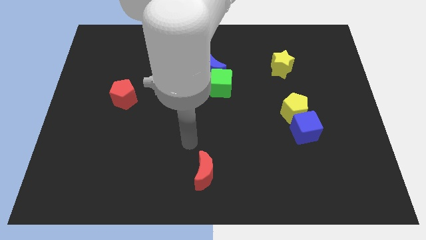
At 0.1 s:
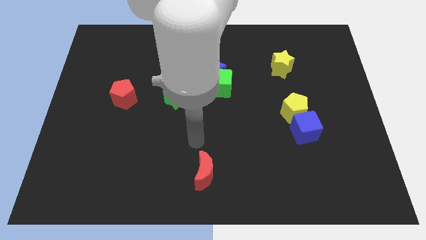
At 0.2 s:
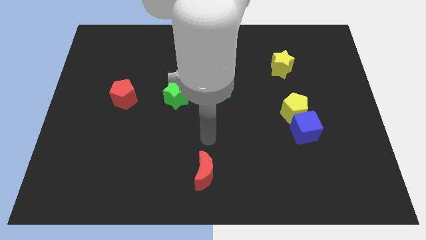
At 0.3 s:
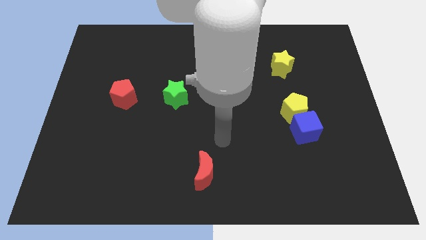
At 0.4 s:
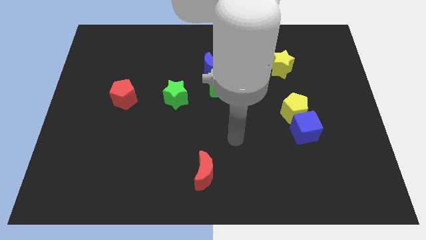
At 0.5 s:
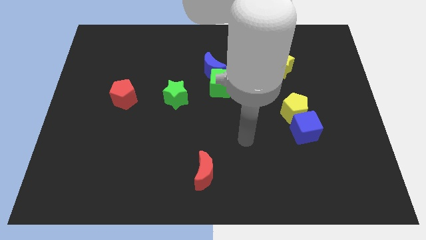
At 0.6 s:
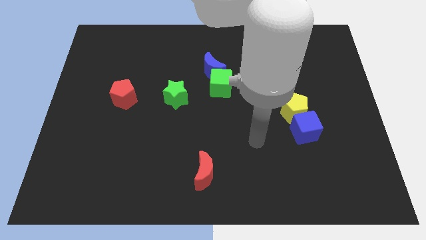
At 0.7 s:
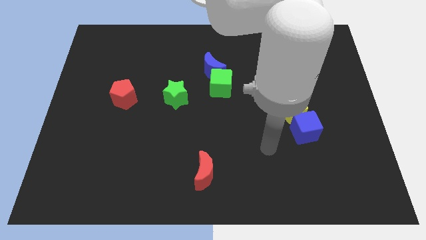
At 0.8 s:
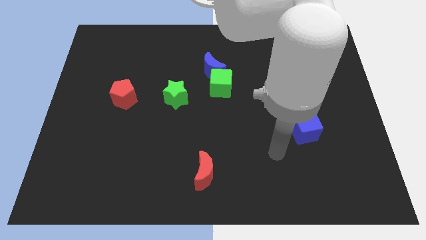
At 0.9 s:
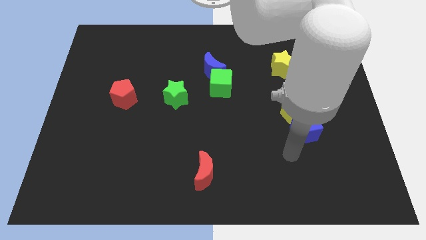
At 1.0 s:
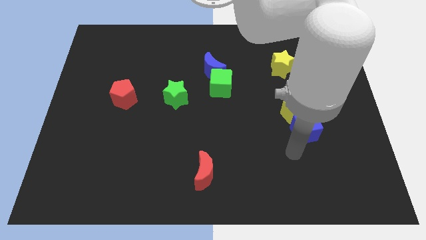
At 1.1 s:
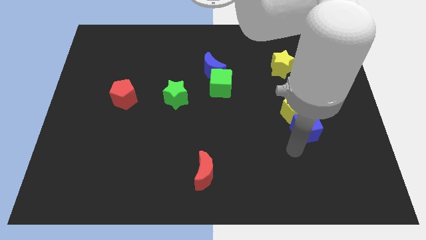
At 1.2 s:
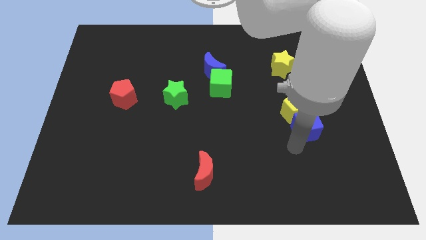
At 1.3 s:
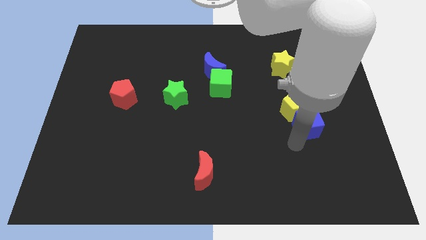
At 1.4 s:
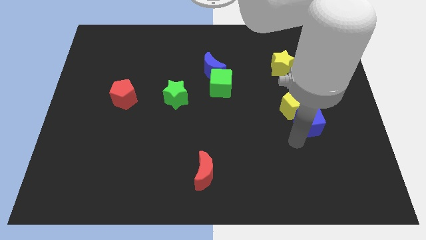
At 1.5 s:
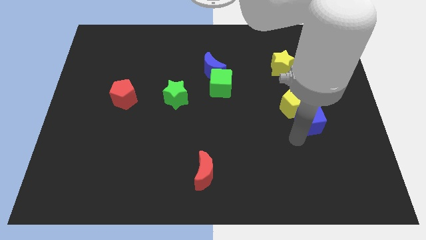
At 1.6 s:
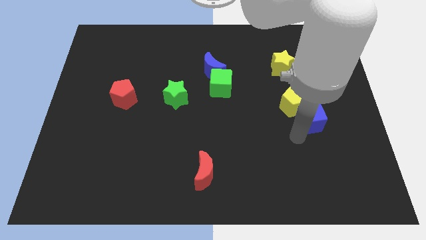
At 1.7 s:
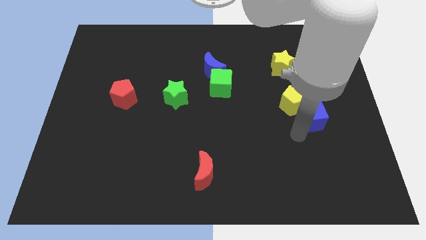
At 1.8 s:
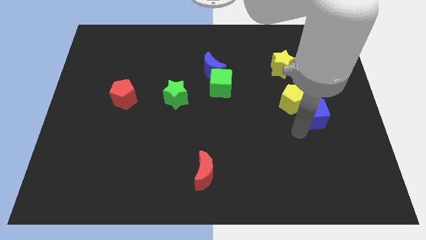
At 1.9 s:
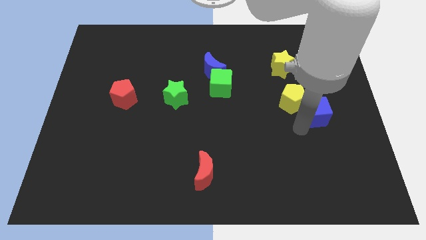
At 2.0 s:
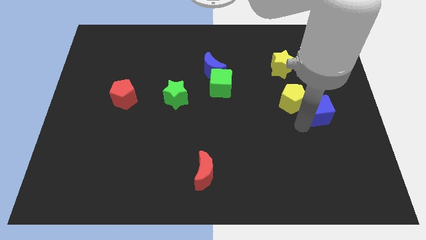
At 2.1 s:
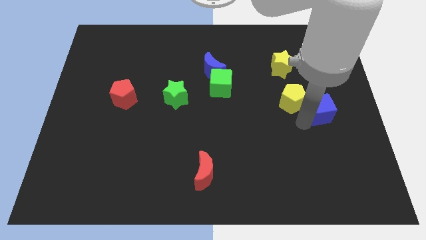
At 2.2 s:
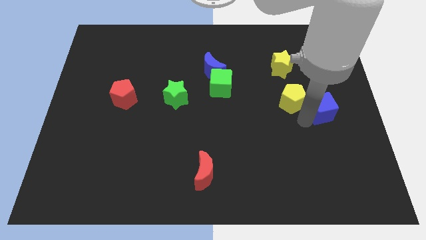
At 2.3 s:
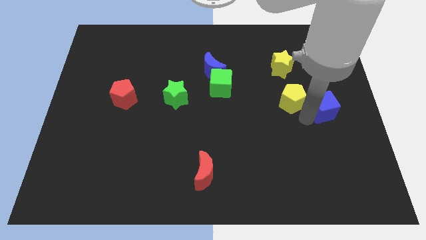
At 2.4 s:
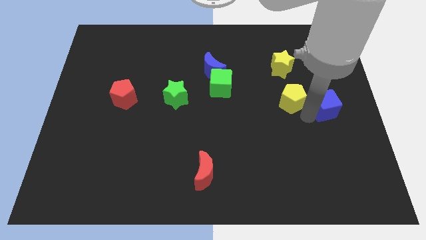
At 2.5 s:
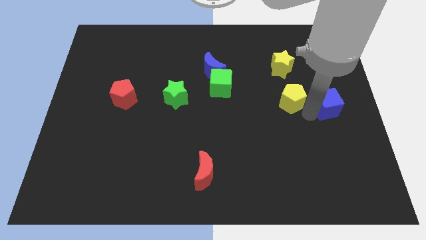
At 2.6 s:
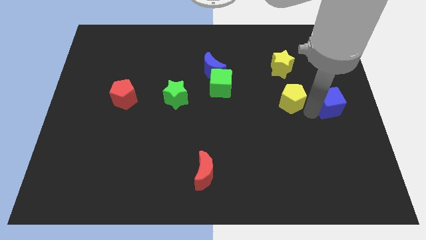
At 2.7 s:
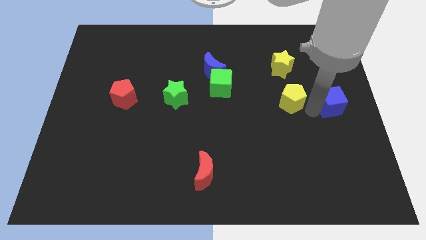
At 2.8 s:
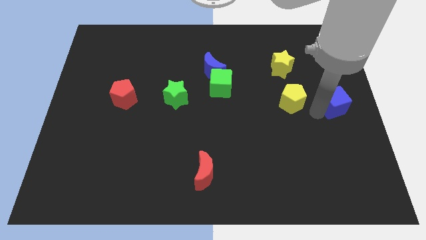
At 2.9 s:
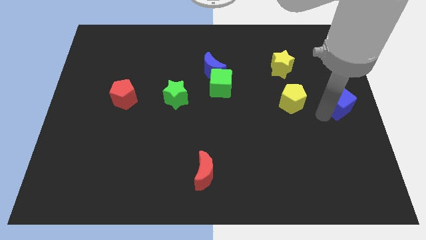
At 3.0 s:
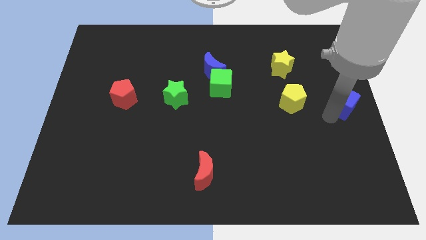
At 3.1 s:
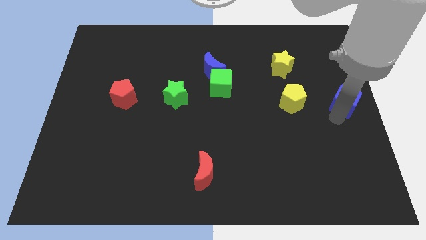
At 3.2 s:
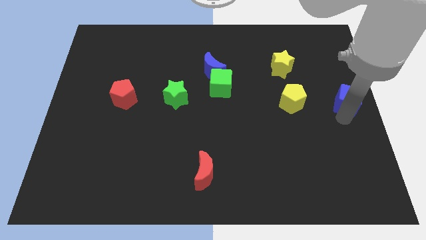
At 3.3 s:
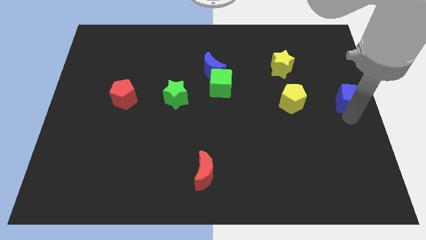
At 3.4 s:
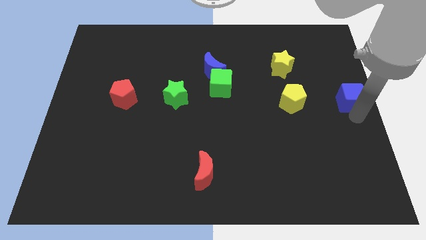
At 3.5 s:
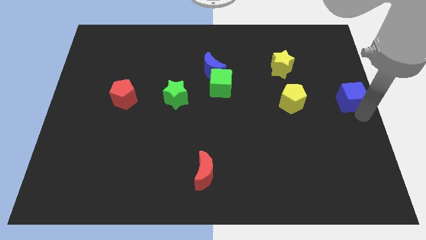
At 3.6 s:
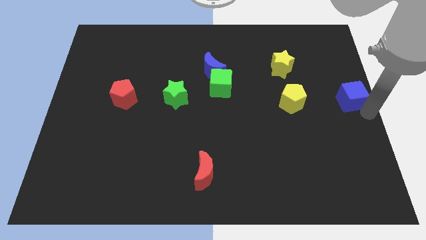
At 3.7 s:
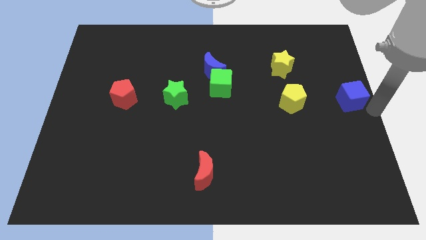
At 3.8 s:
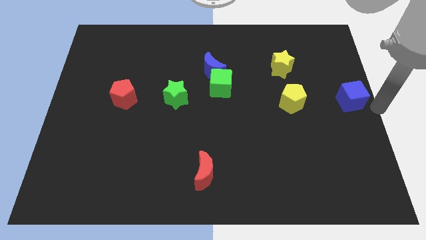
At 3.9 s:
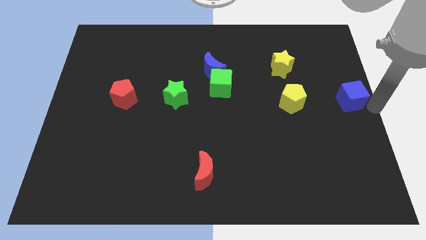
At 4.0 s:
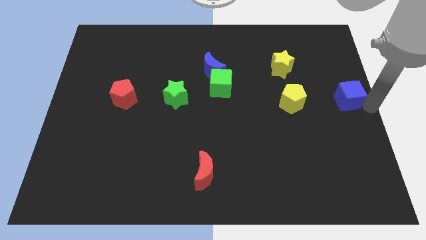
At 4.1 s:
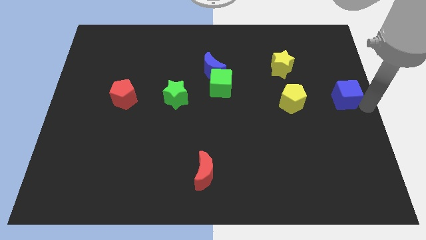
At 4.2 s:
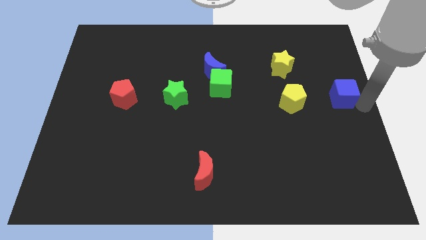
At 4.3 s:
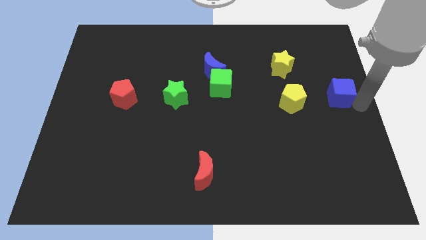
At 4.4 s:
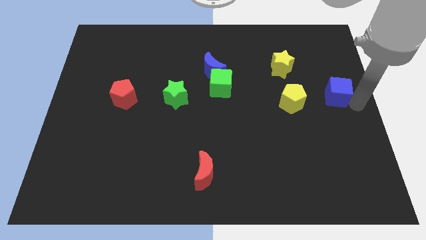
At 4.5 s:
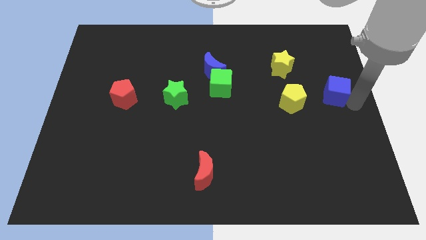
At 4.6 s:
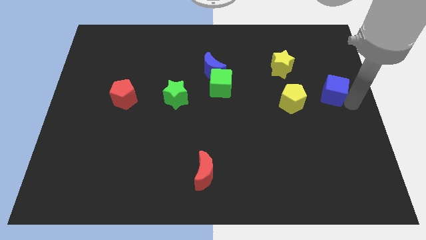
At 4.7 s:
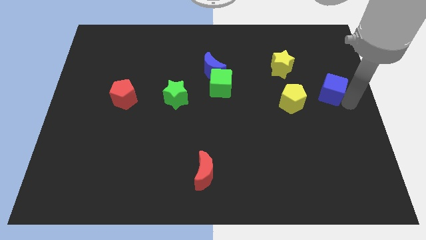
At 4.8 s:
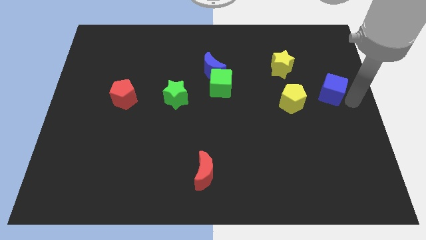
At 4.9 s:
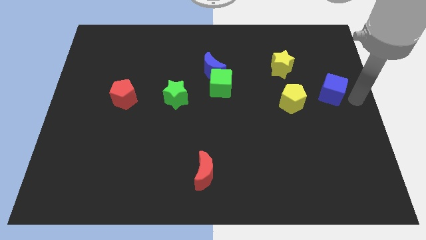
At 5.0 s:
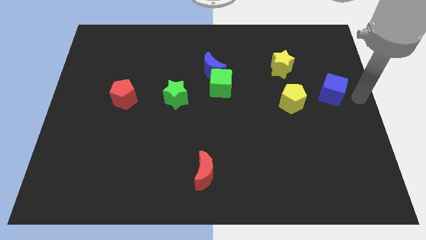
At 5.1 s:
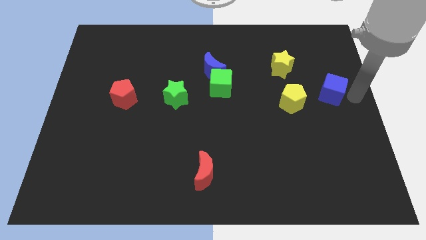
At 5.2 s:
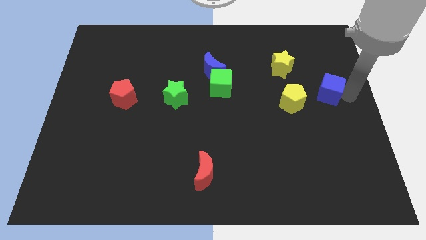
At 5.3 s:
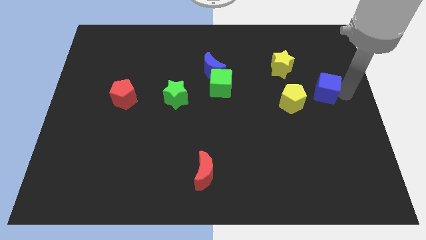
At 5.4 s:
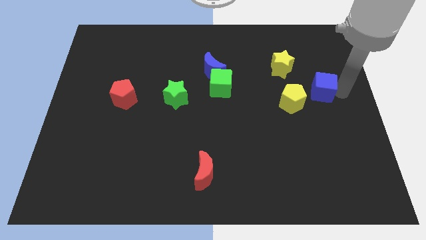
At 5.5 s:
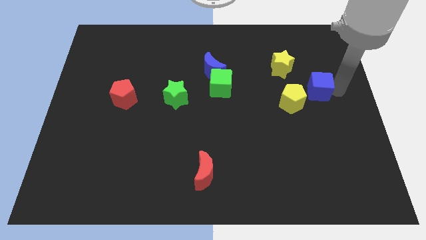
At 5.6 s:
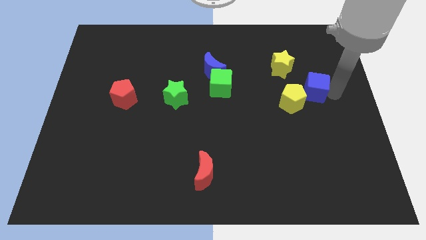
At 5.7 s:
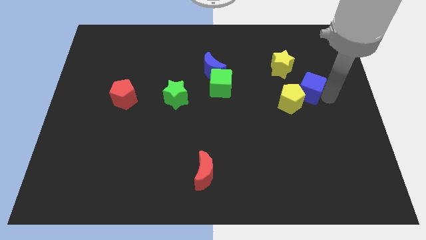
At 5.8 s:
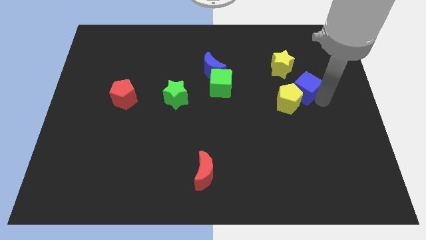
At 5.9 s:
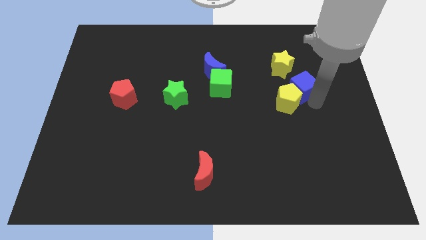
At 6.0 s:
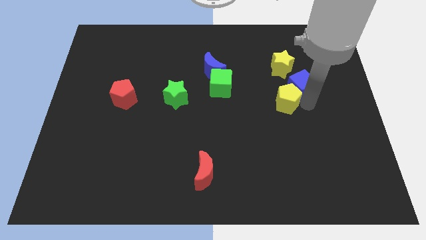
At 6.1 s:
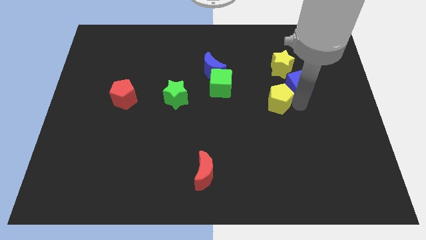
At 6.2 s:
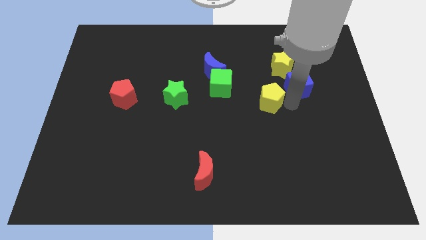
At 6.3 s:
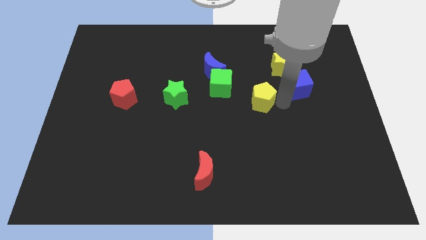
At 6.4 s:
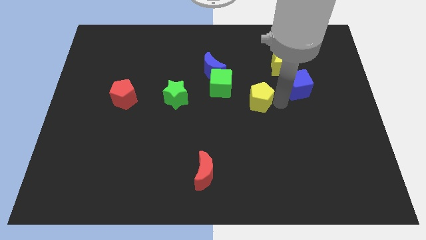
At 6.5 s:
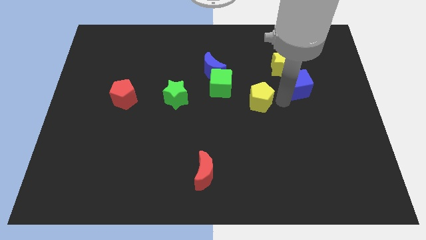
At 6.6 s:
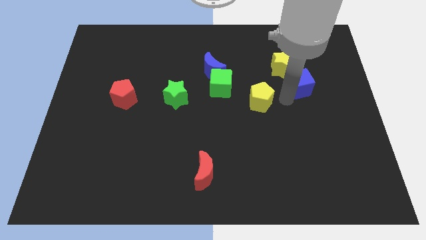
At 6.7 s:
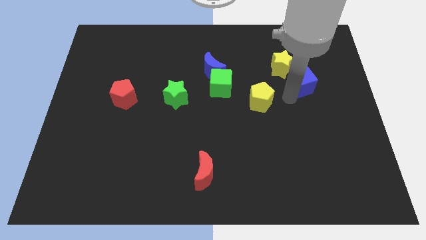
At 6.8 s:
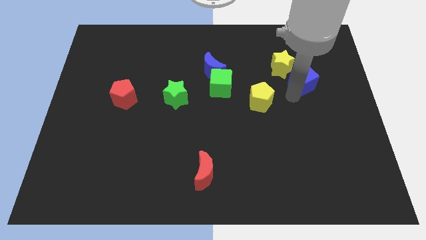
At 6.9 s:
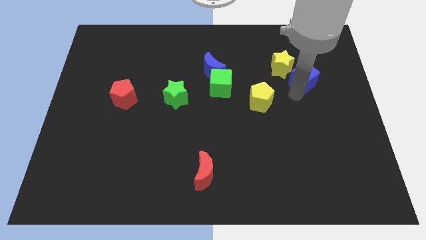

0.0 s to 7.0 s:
put the blue cube to the right side of the yellow star
